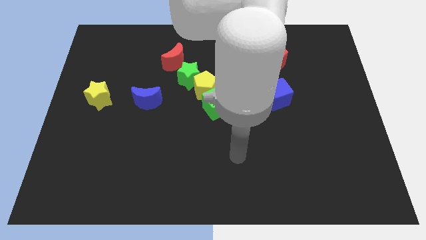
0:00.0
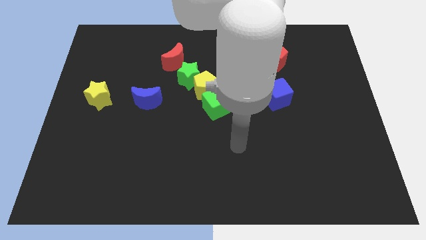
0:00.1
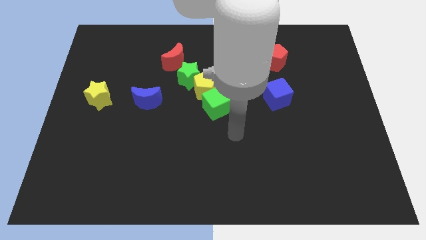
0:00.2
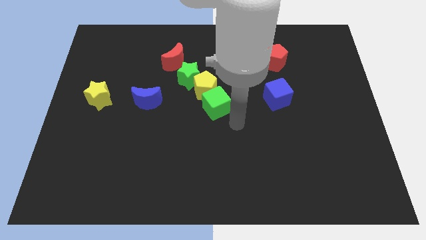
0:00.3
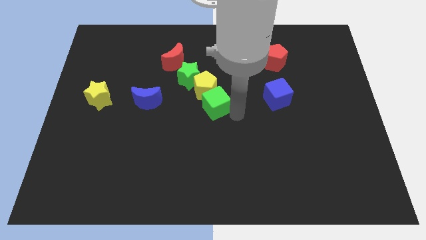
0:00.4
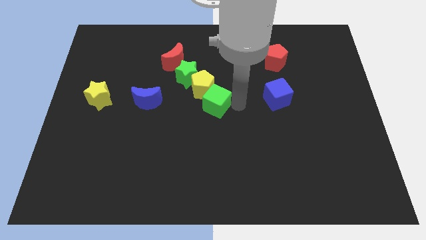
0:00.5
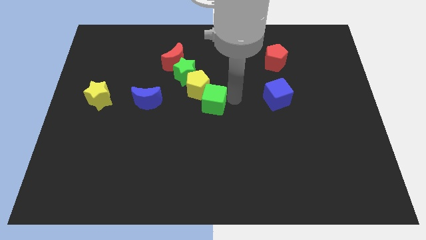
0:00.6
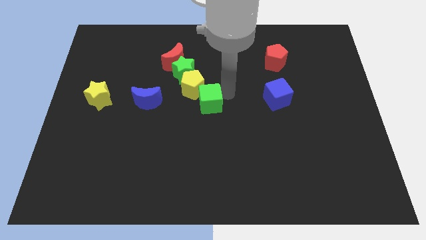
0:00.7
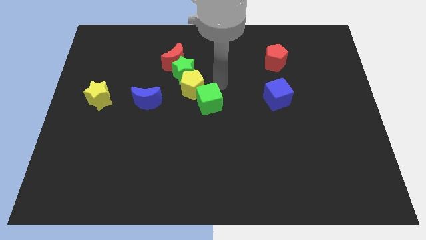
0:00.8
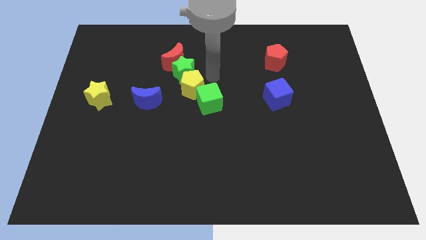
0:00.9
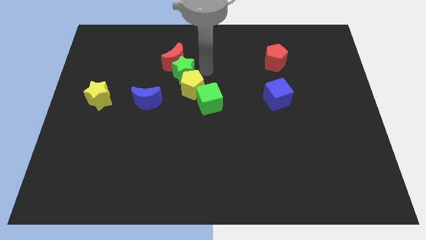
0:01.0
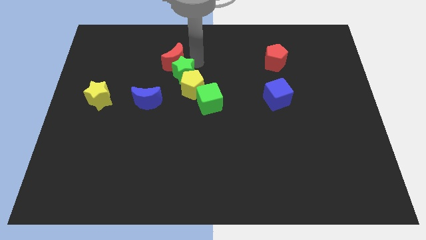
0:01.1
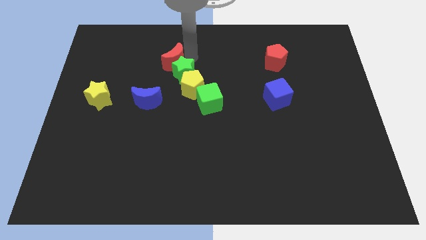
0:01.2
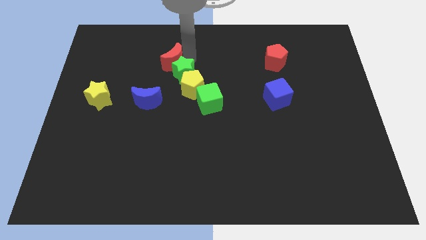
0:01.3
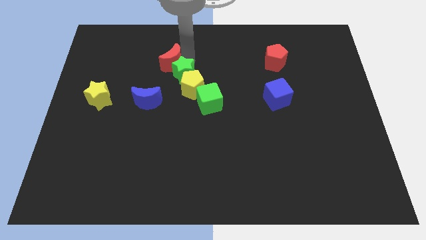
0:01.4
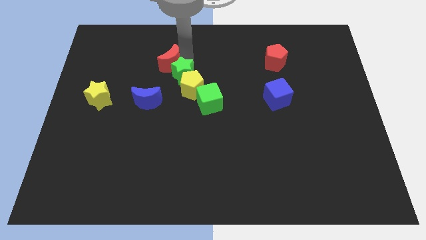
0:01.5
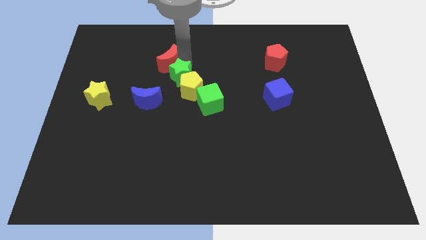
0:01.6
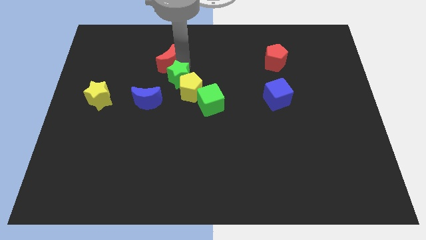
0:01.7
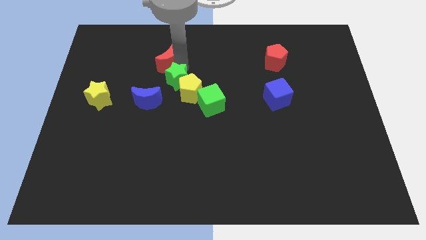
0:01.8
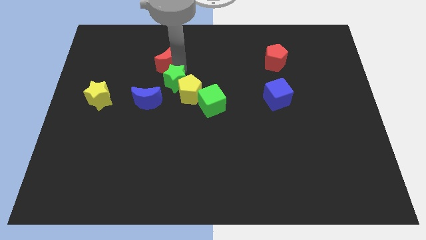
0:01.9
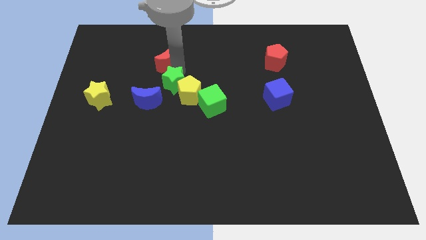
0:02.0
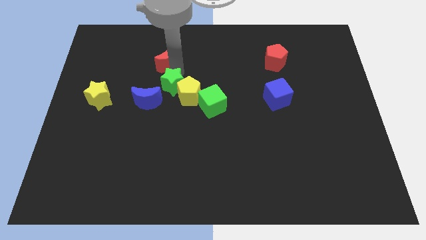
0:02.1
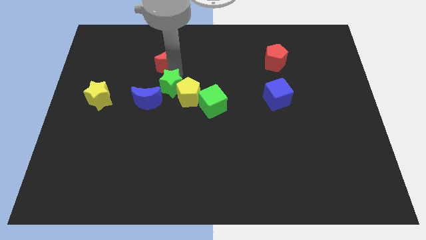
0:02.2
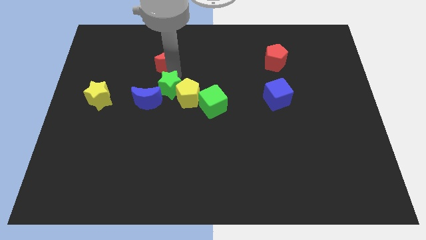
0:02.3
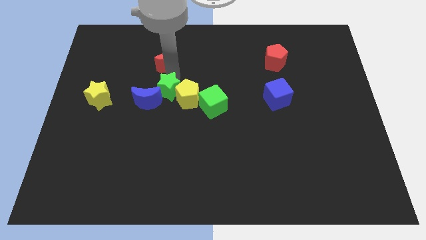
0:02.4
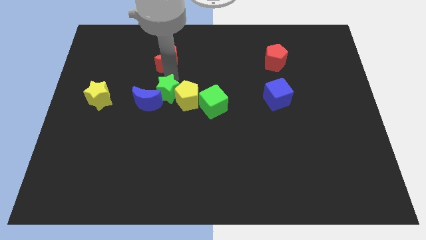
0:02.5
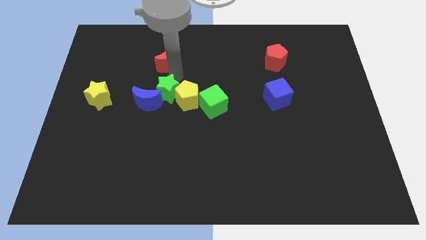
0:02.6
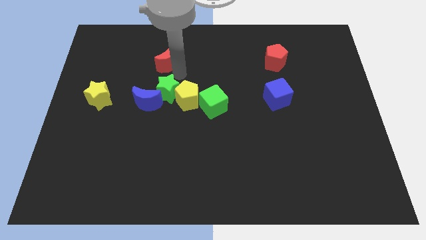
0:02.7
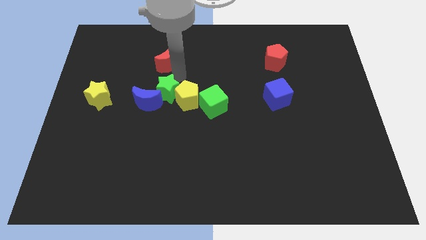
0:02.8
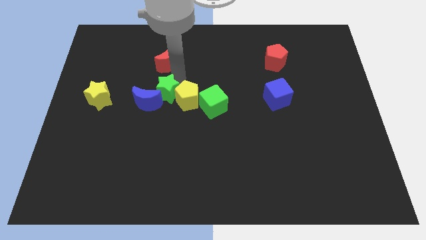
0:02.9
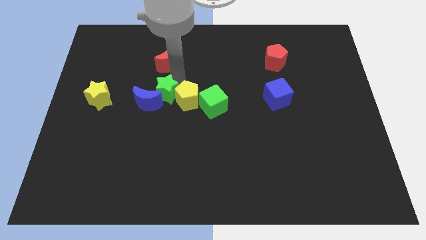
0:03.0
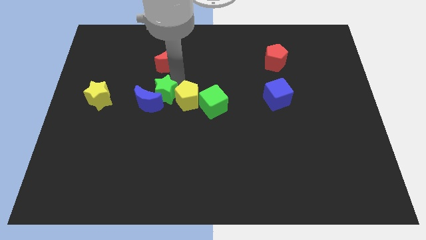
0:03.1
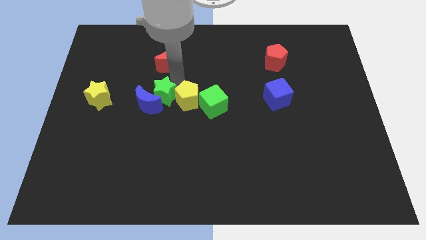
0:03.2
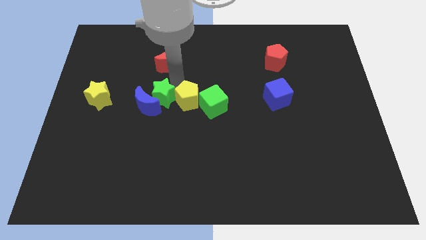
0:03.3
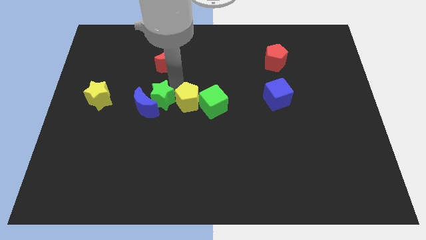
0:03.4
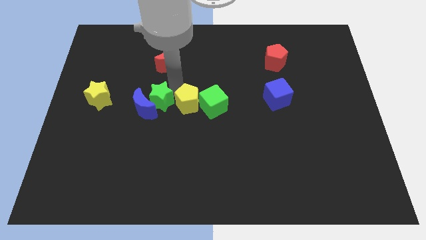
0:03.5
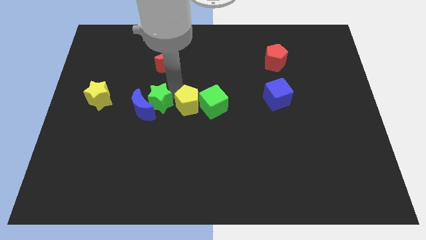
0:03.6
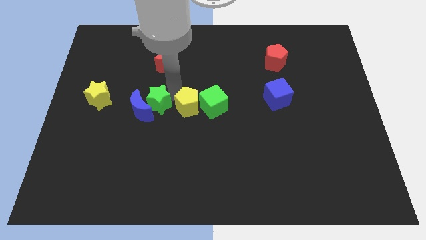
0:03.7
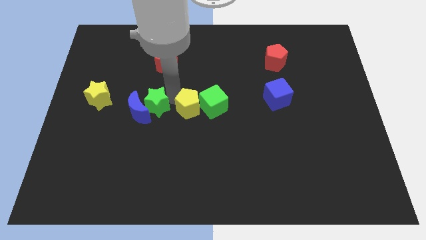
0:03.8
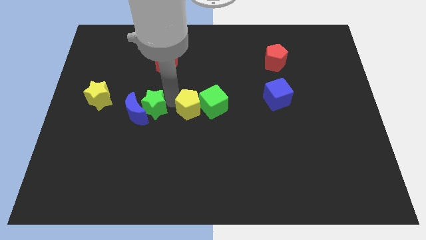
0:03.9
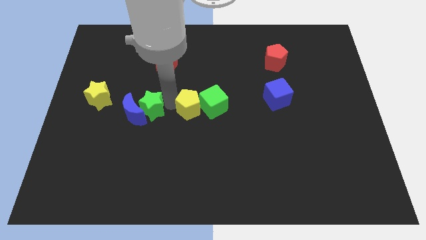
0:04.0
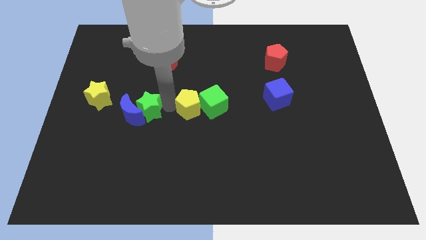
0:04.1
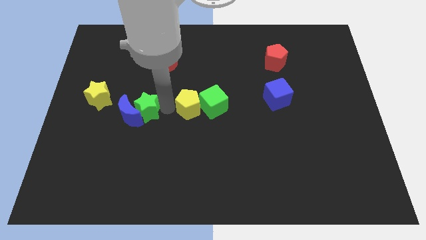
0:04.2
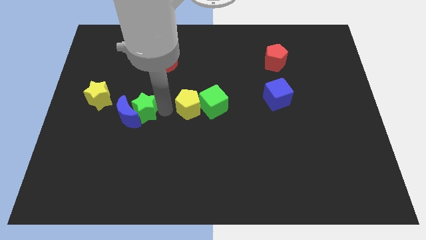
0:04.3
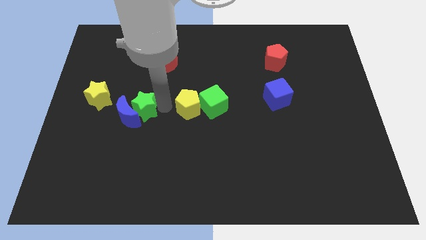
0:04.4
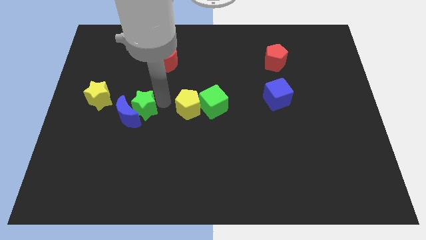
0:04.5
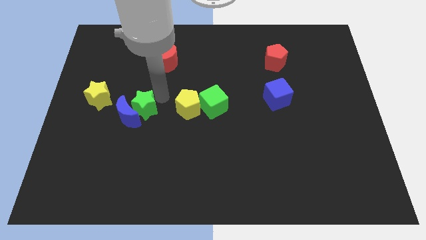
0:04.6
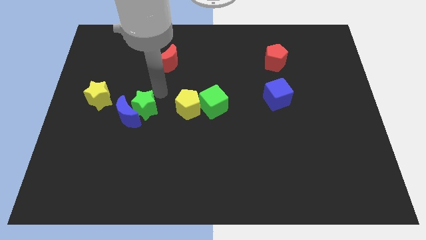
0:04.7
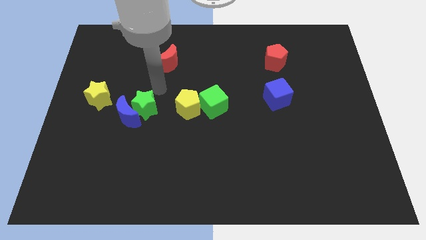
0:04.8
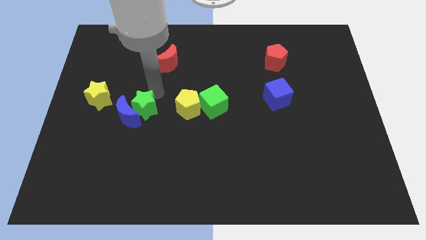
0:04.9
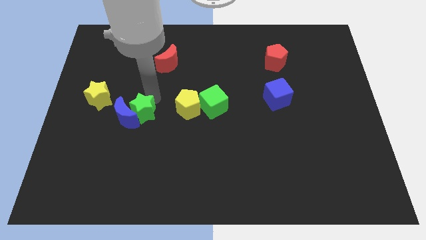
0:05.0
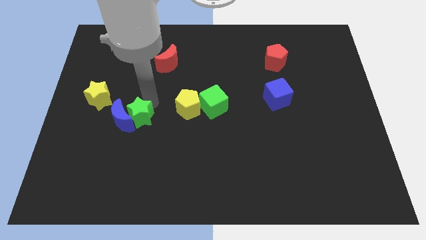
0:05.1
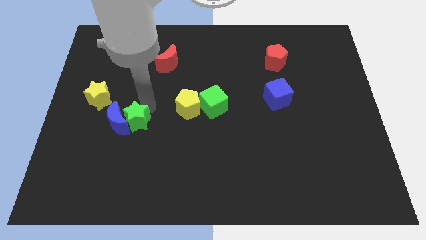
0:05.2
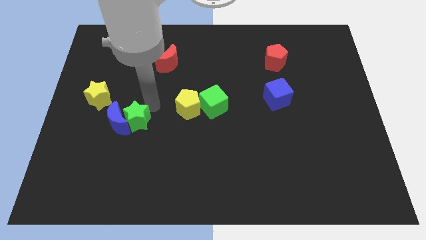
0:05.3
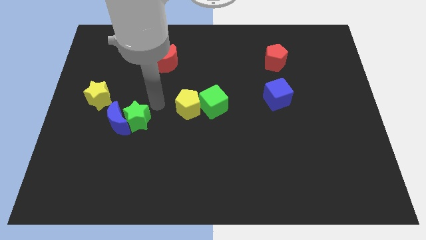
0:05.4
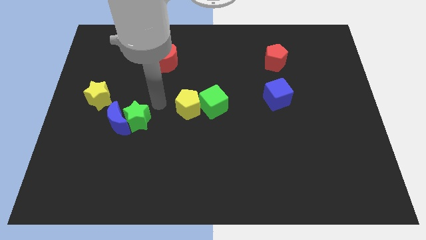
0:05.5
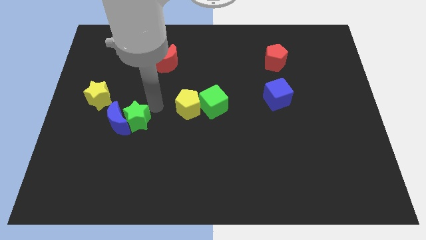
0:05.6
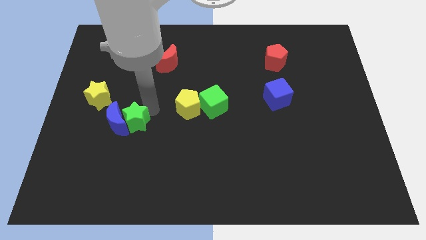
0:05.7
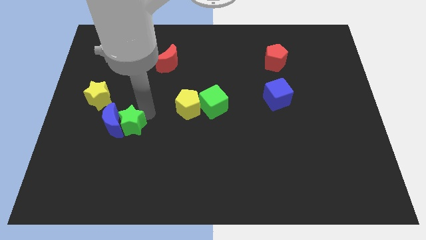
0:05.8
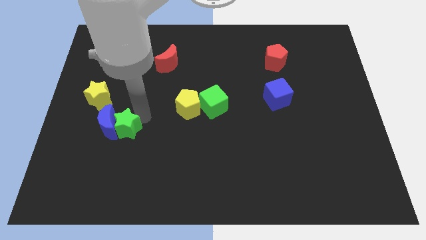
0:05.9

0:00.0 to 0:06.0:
move the green star down and then to the left

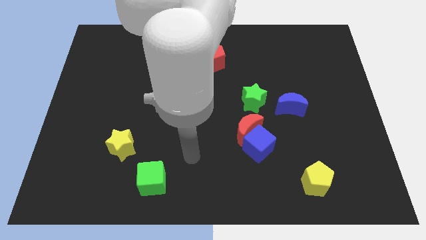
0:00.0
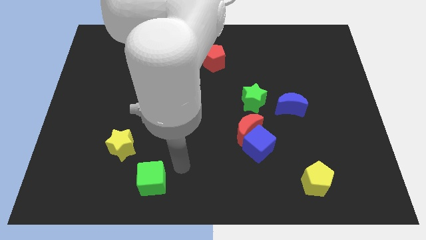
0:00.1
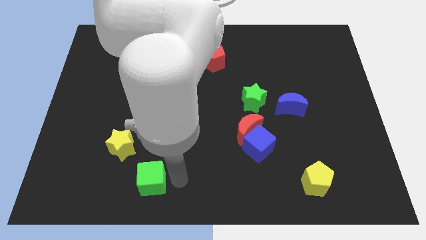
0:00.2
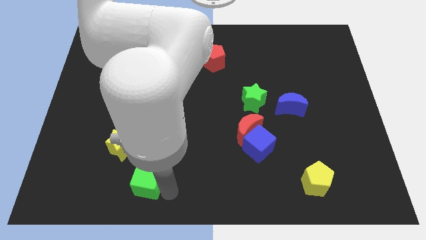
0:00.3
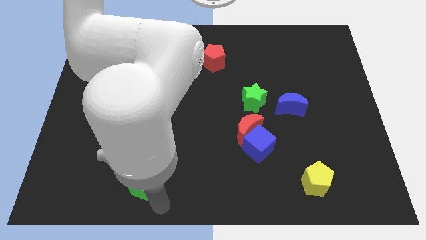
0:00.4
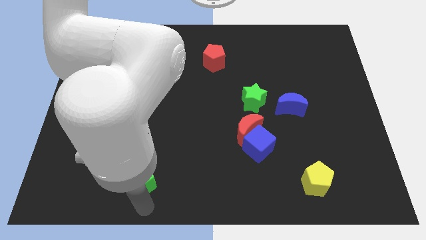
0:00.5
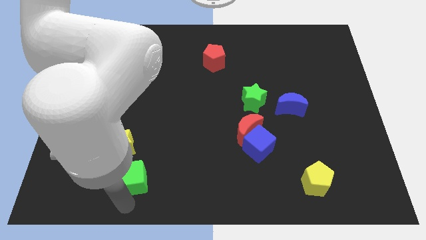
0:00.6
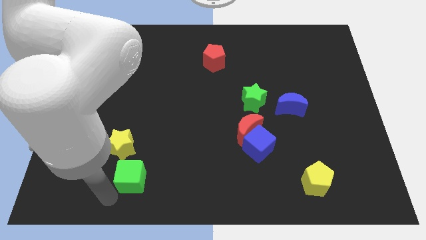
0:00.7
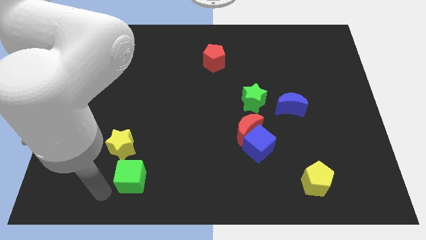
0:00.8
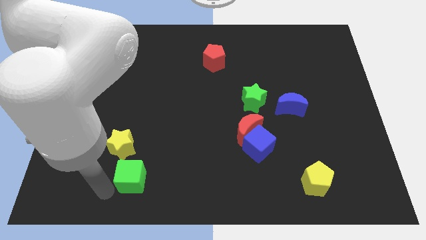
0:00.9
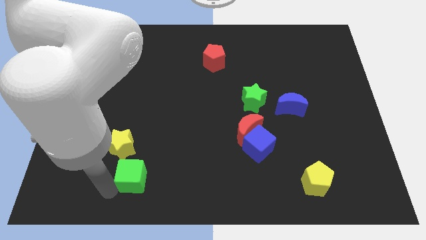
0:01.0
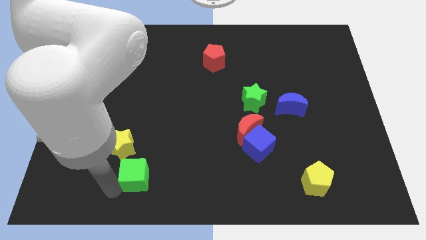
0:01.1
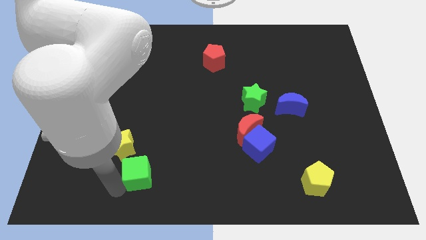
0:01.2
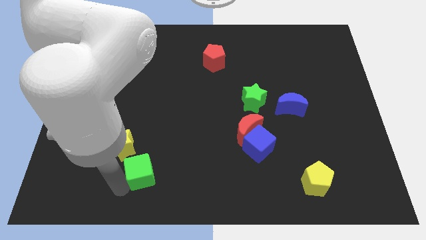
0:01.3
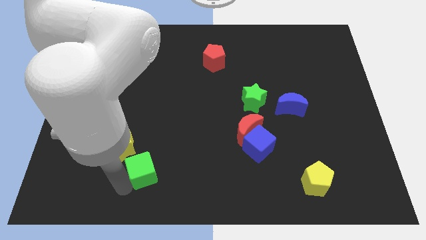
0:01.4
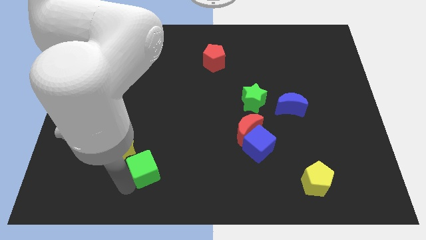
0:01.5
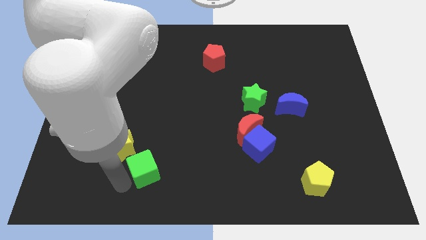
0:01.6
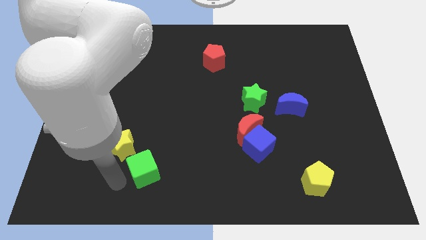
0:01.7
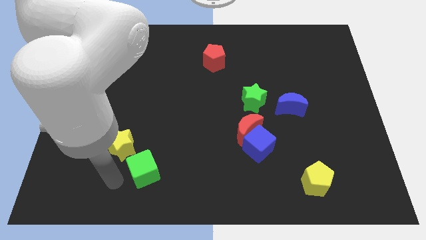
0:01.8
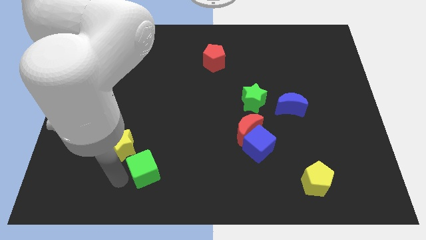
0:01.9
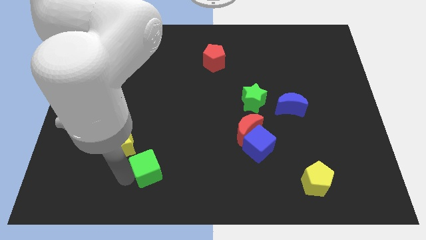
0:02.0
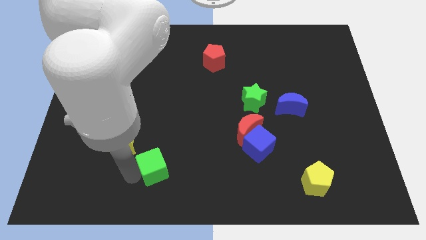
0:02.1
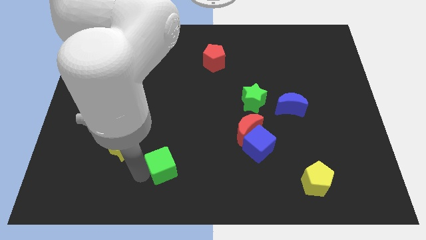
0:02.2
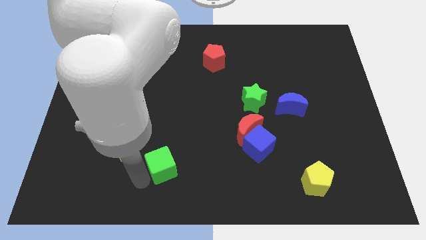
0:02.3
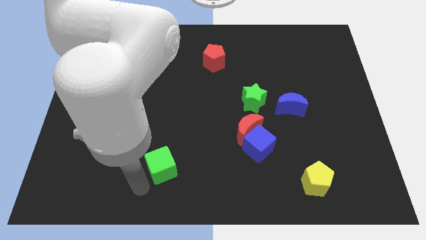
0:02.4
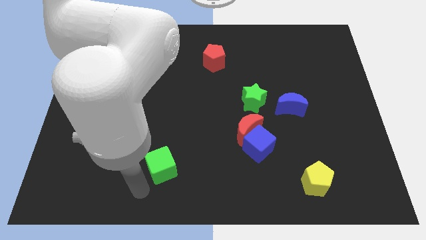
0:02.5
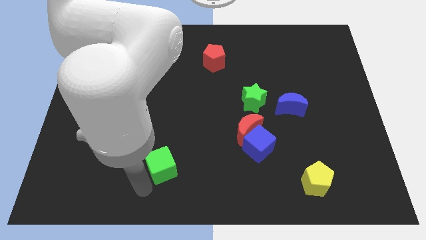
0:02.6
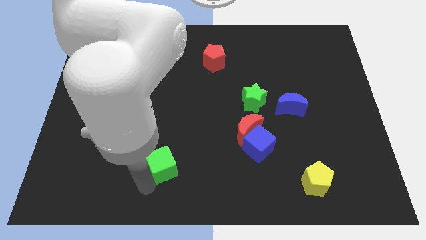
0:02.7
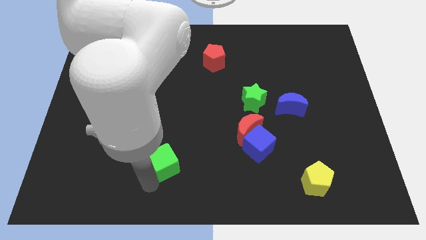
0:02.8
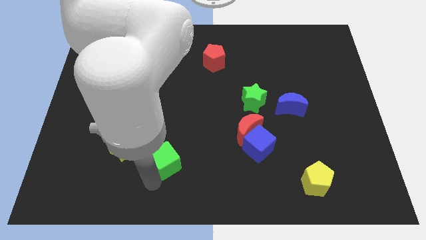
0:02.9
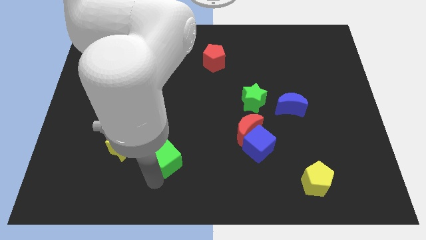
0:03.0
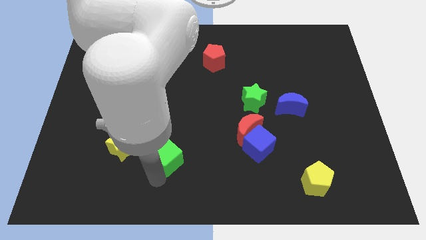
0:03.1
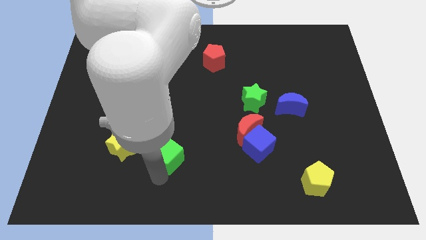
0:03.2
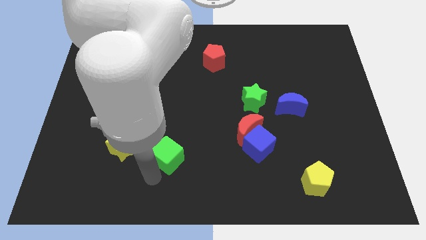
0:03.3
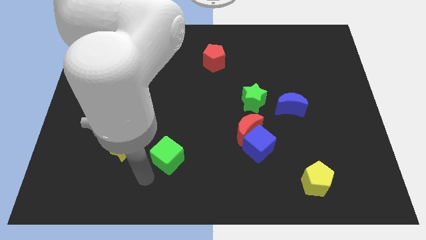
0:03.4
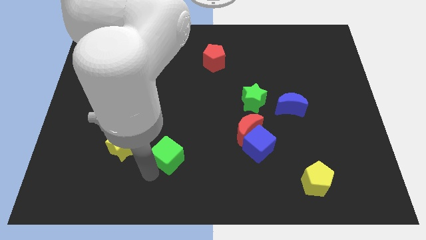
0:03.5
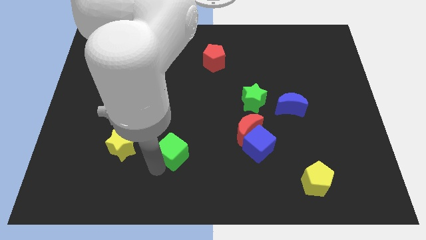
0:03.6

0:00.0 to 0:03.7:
push the green cube diagonally up and to the right a bit
